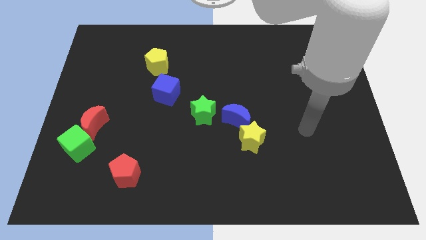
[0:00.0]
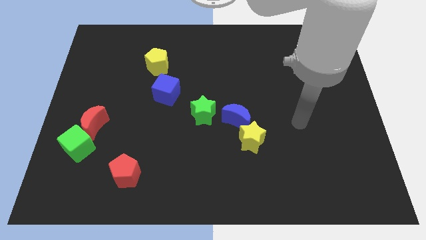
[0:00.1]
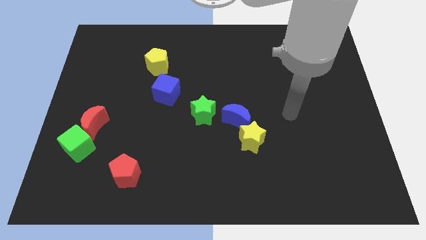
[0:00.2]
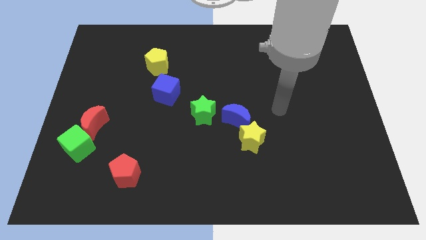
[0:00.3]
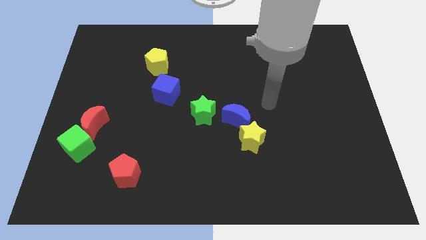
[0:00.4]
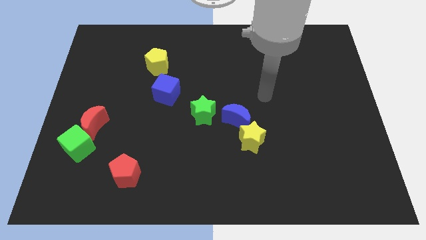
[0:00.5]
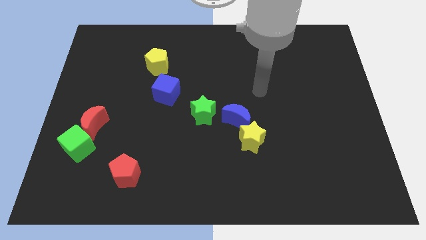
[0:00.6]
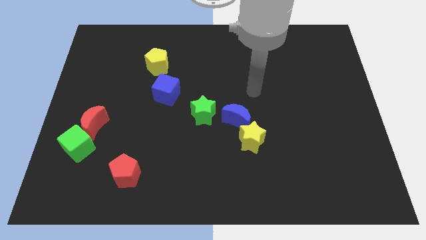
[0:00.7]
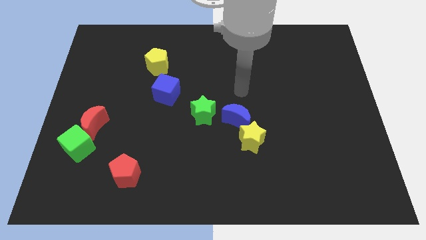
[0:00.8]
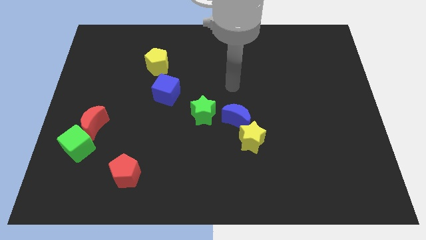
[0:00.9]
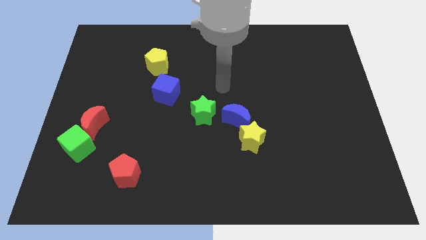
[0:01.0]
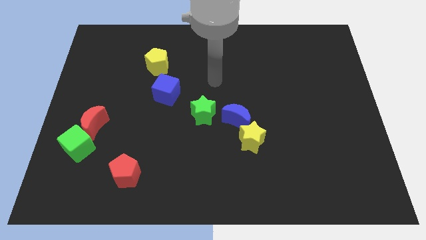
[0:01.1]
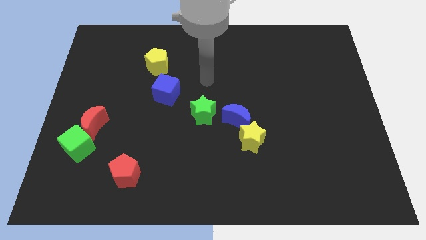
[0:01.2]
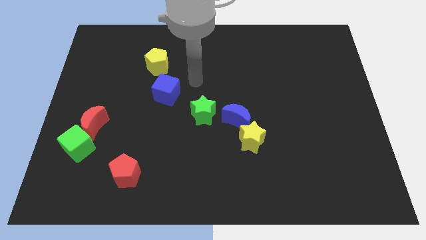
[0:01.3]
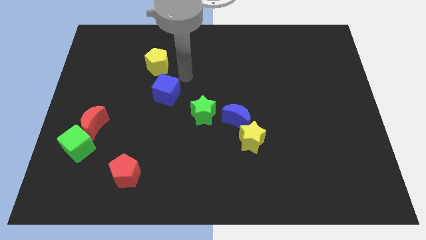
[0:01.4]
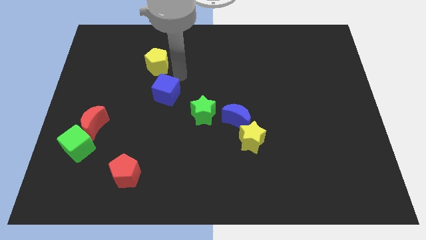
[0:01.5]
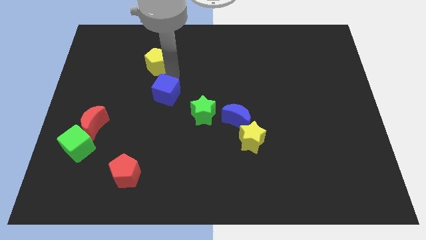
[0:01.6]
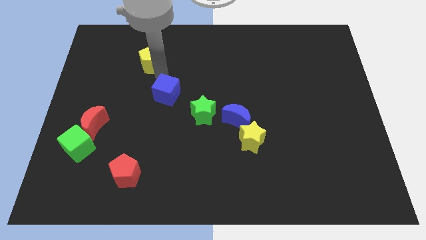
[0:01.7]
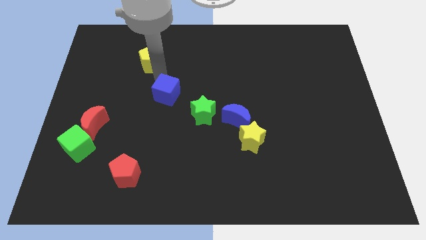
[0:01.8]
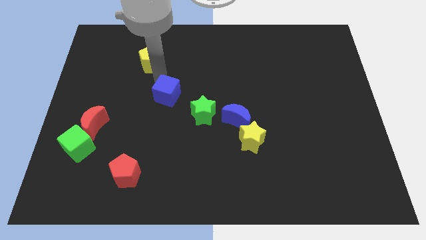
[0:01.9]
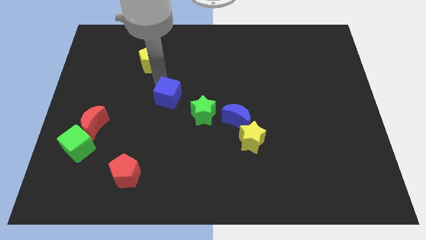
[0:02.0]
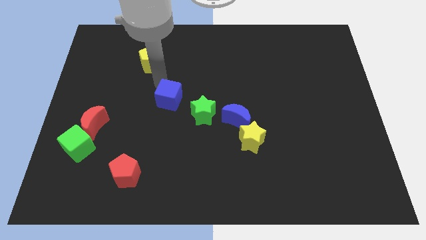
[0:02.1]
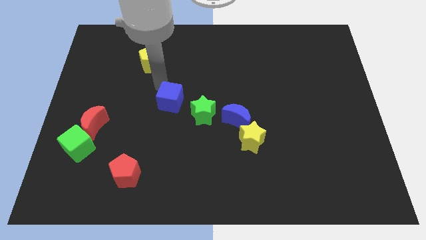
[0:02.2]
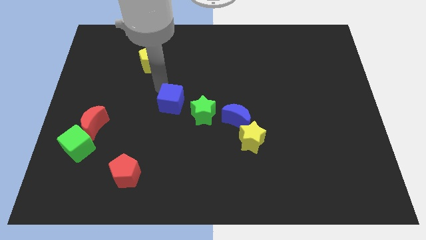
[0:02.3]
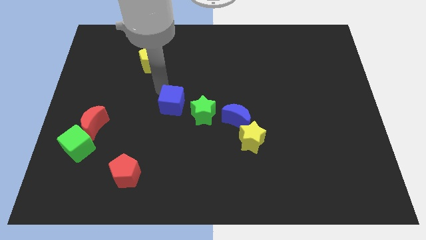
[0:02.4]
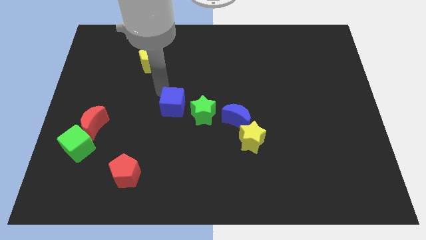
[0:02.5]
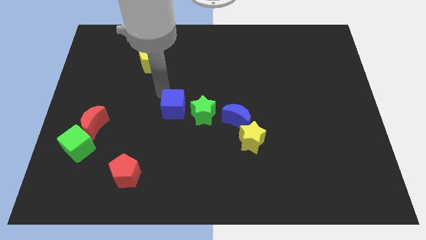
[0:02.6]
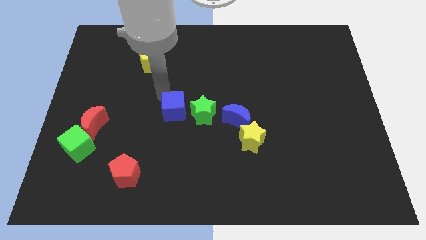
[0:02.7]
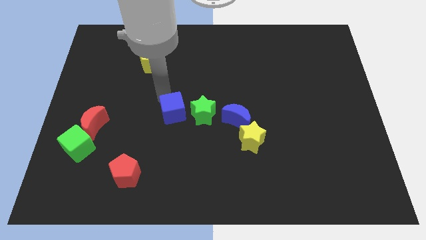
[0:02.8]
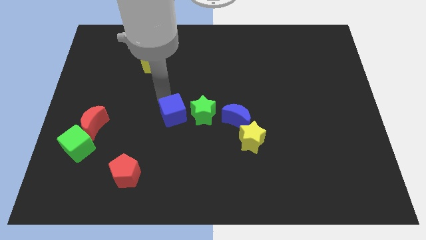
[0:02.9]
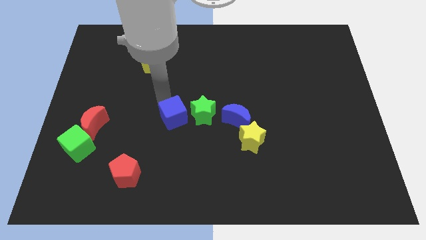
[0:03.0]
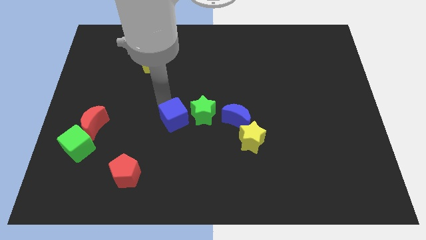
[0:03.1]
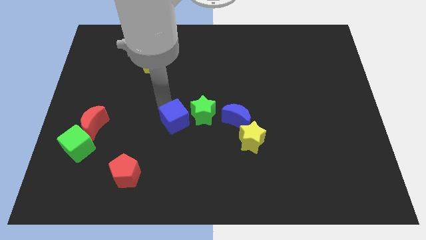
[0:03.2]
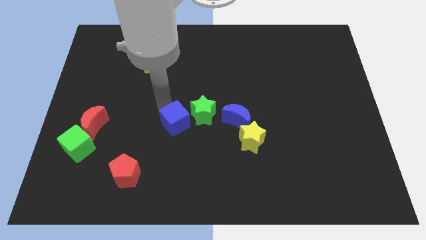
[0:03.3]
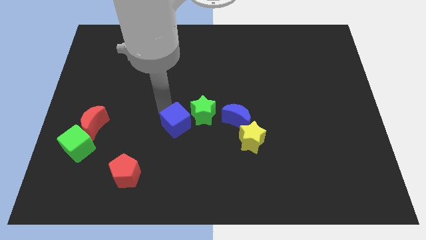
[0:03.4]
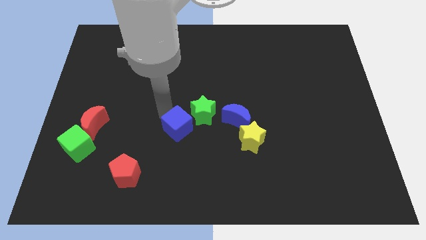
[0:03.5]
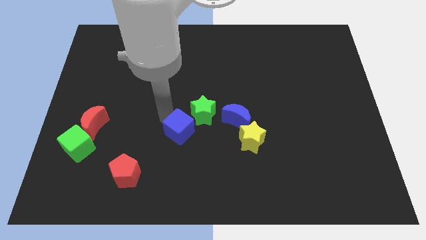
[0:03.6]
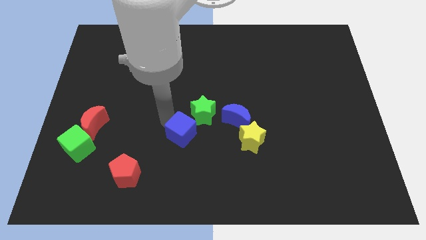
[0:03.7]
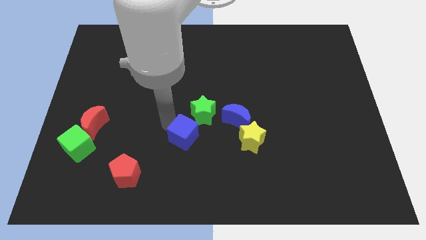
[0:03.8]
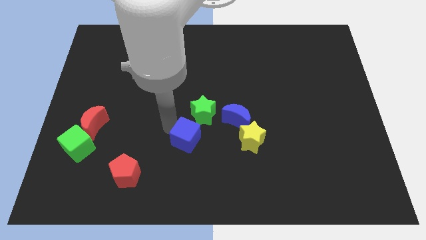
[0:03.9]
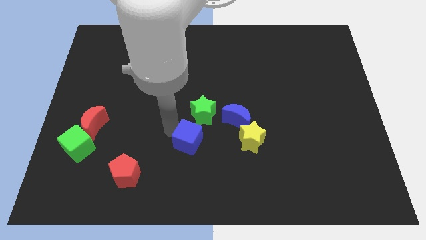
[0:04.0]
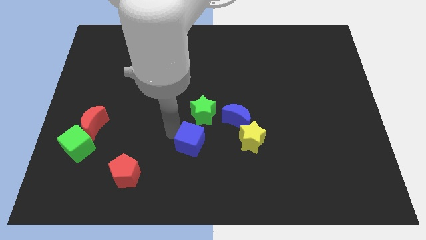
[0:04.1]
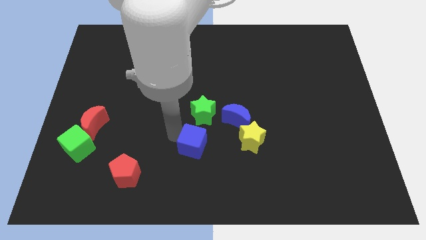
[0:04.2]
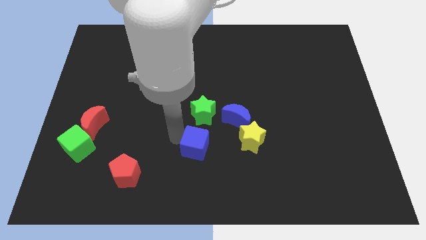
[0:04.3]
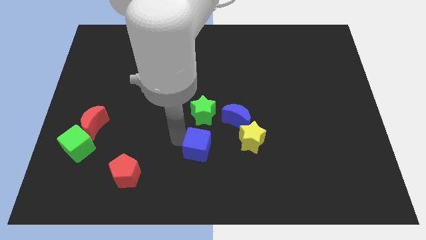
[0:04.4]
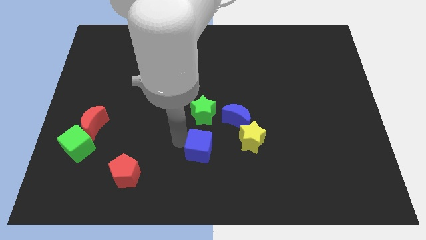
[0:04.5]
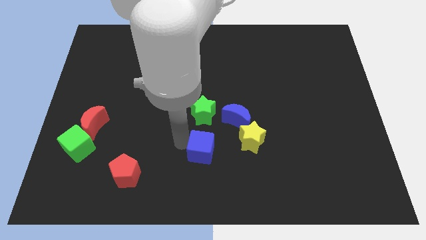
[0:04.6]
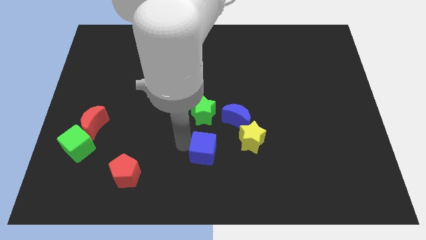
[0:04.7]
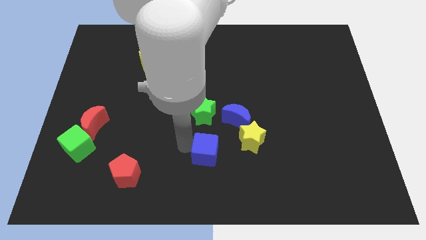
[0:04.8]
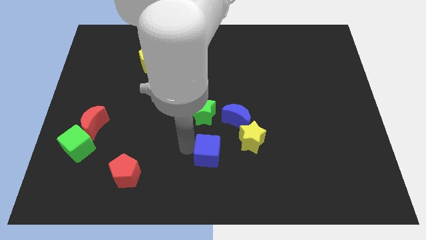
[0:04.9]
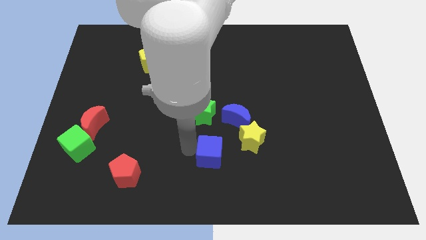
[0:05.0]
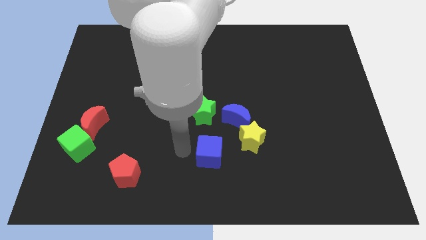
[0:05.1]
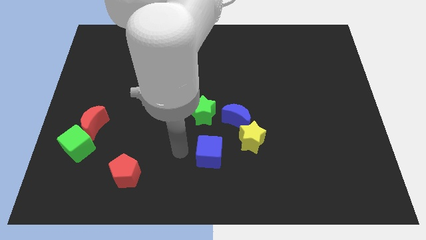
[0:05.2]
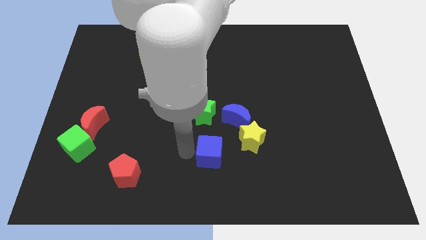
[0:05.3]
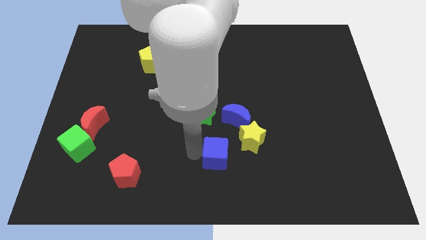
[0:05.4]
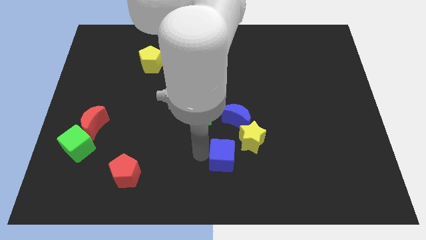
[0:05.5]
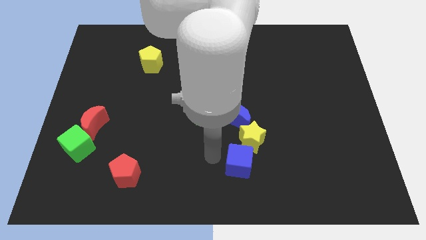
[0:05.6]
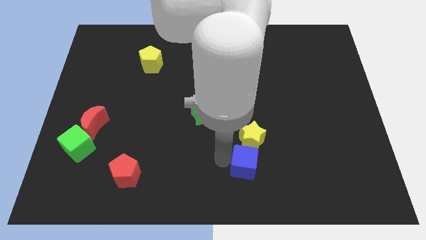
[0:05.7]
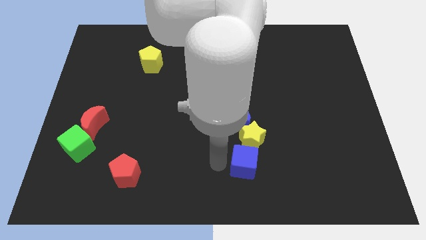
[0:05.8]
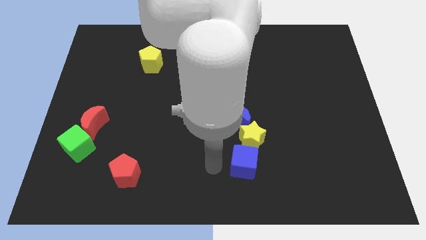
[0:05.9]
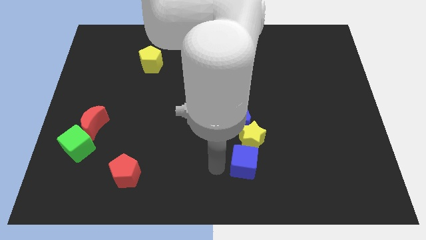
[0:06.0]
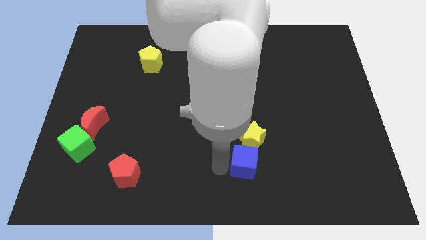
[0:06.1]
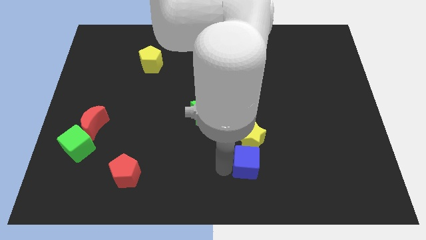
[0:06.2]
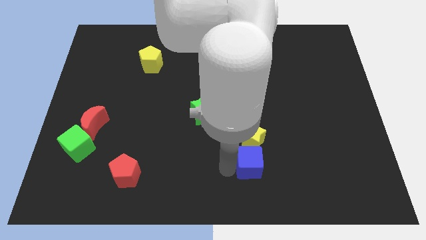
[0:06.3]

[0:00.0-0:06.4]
push the blue cube to the bottom right side of the yellow star

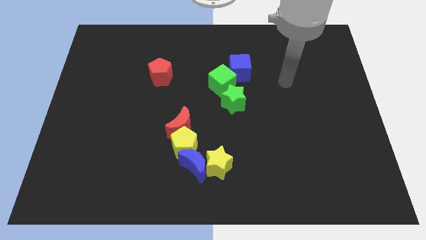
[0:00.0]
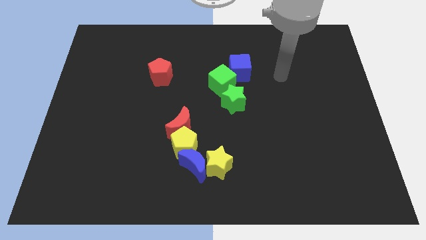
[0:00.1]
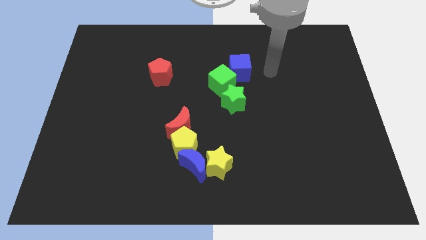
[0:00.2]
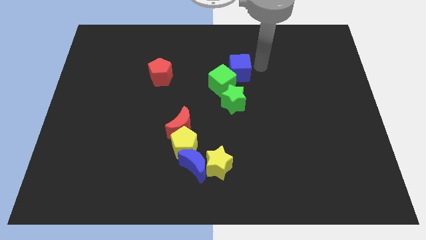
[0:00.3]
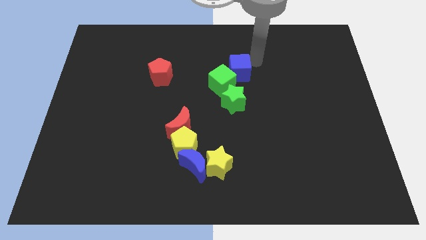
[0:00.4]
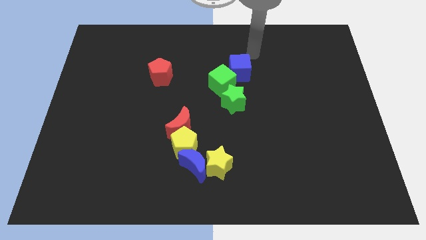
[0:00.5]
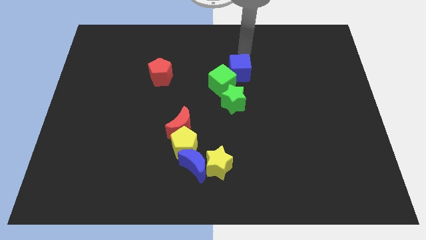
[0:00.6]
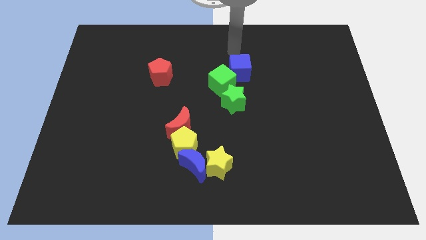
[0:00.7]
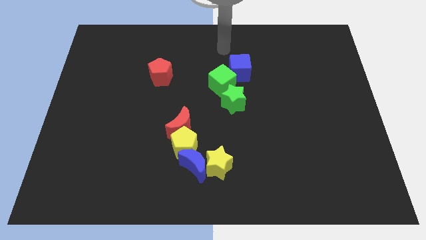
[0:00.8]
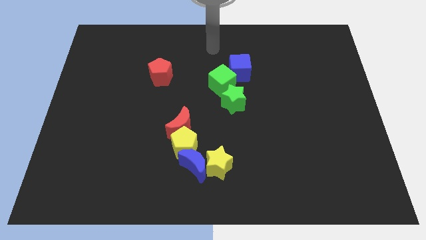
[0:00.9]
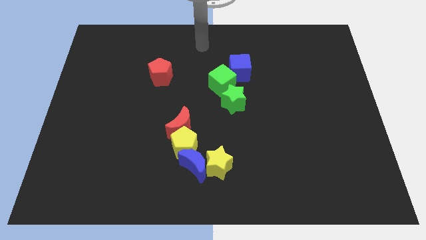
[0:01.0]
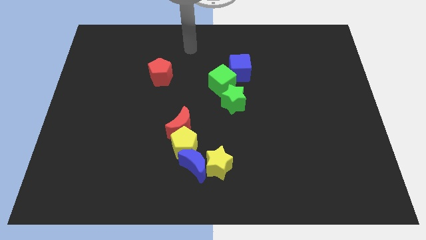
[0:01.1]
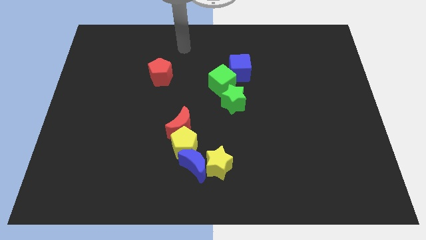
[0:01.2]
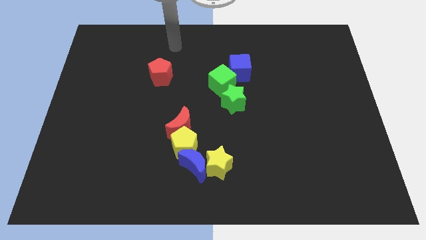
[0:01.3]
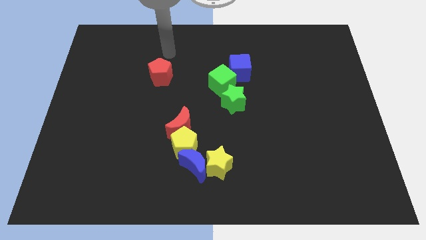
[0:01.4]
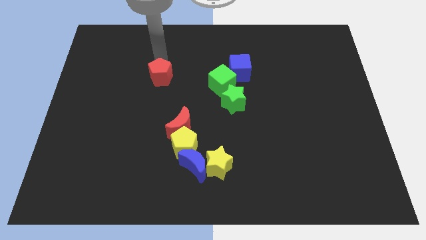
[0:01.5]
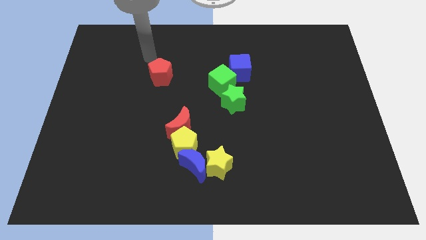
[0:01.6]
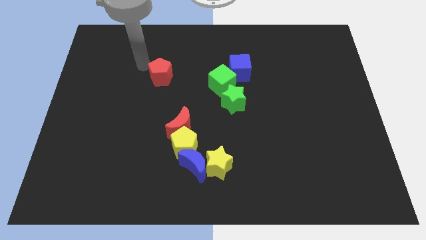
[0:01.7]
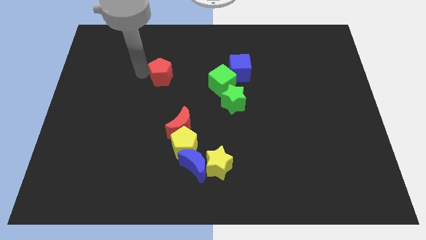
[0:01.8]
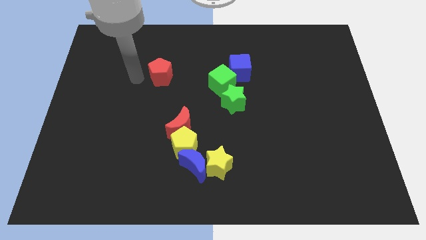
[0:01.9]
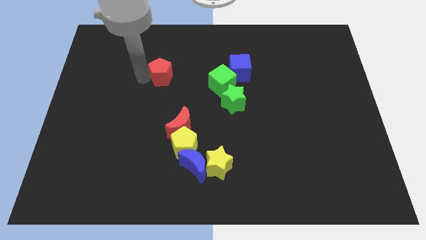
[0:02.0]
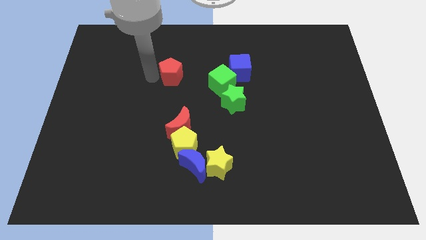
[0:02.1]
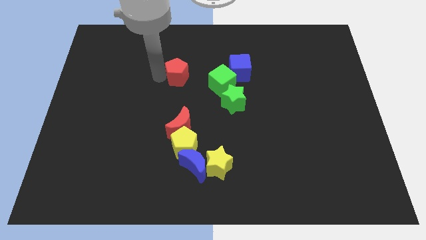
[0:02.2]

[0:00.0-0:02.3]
move the red pentagon to the left of the blue cube
